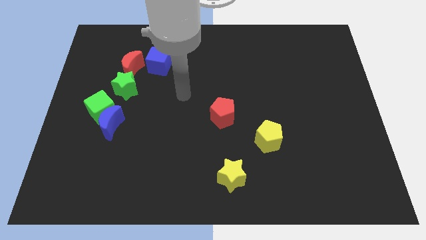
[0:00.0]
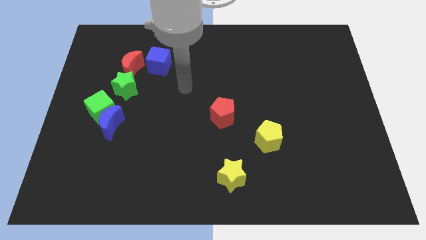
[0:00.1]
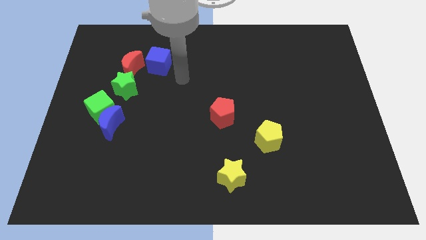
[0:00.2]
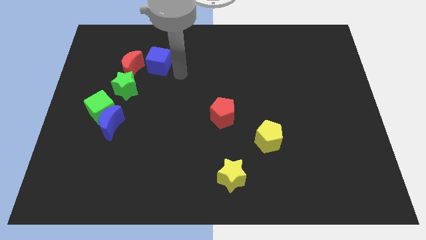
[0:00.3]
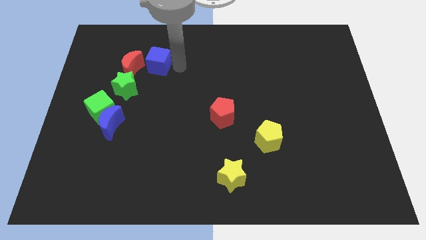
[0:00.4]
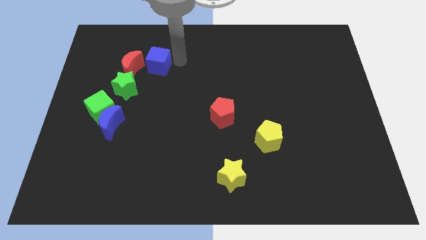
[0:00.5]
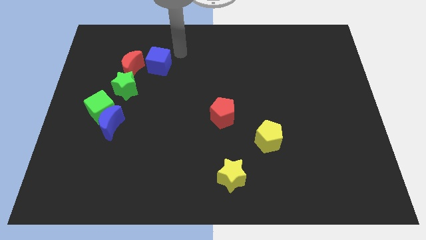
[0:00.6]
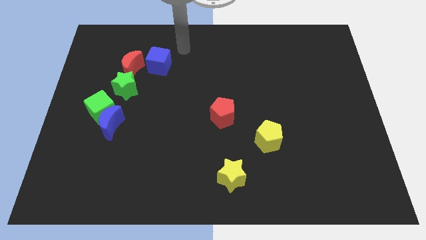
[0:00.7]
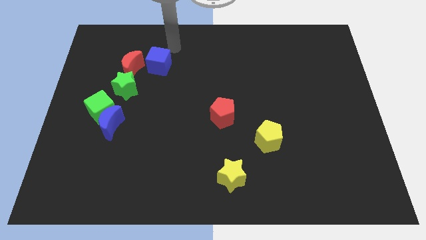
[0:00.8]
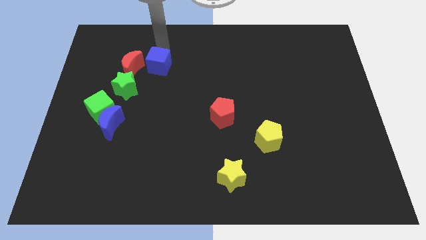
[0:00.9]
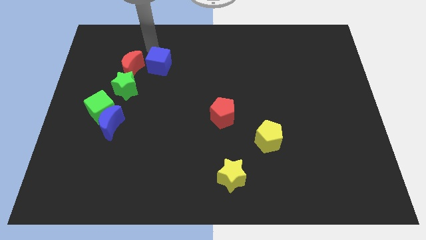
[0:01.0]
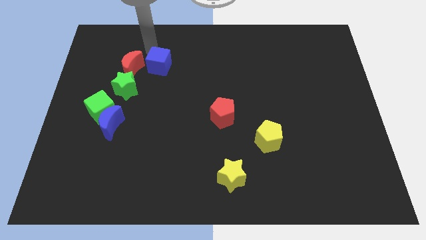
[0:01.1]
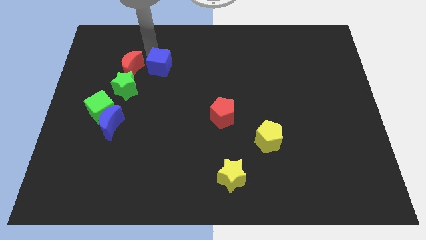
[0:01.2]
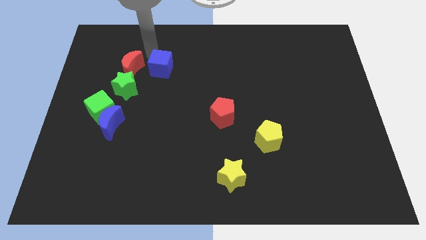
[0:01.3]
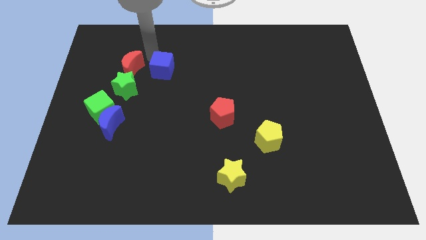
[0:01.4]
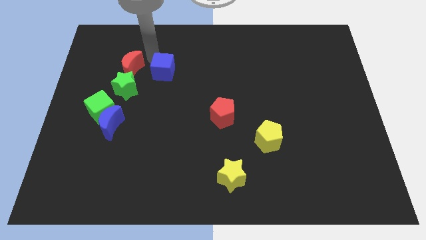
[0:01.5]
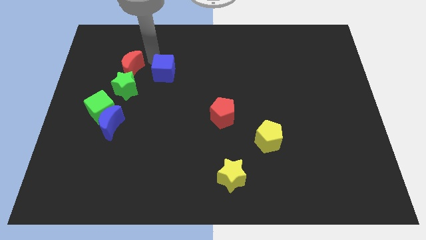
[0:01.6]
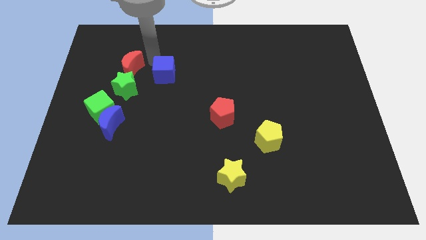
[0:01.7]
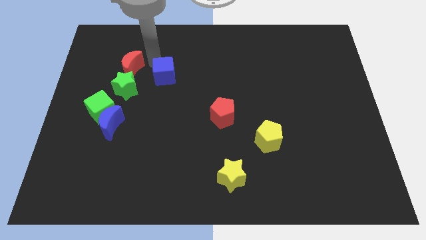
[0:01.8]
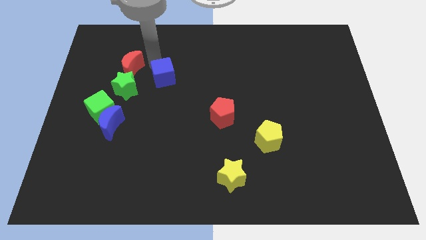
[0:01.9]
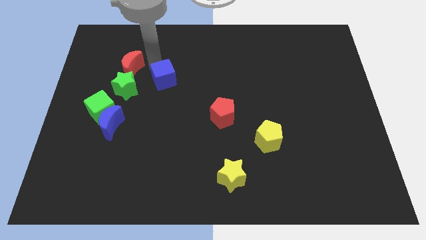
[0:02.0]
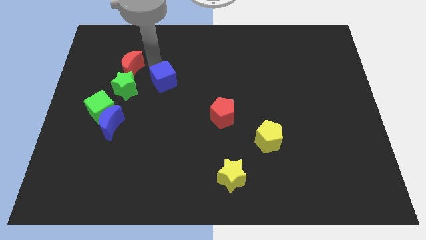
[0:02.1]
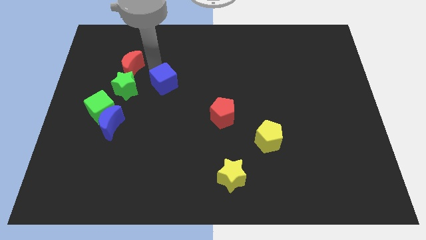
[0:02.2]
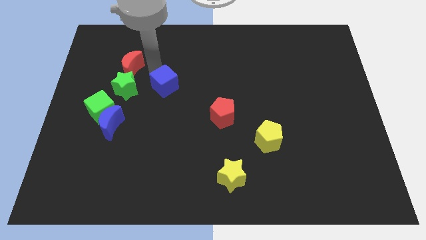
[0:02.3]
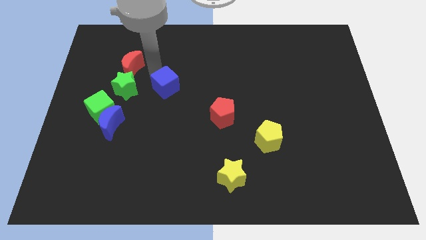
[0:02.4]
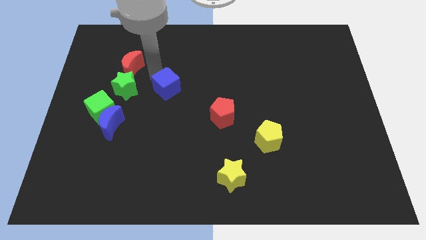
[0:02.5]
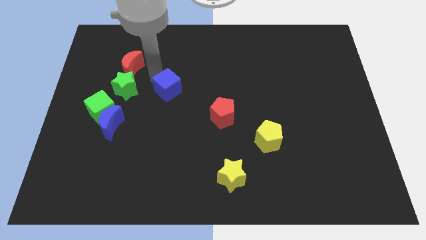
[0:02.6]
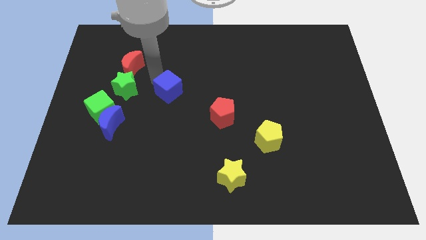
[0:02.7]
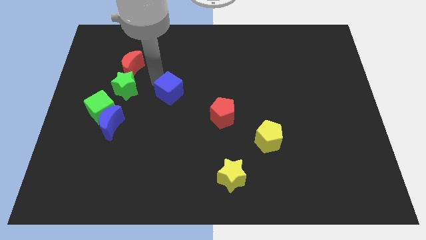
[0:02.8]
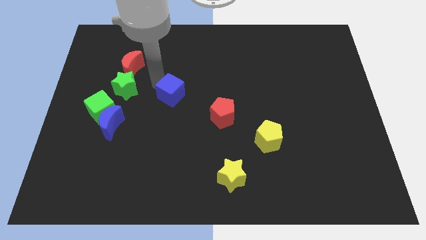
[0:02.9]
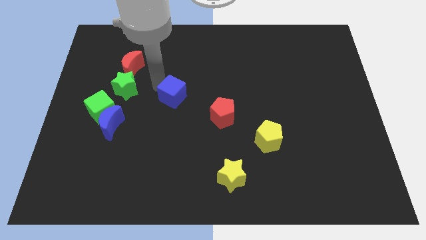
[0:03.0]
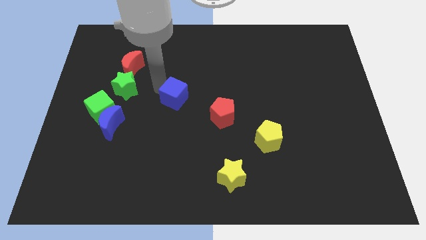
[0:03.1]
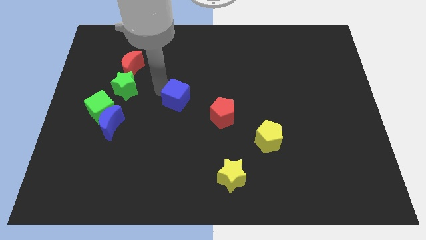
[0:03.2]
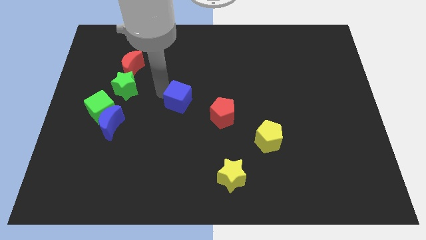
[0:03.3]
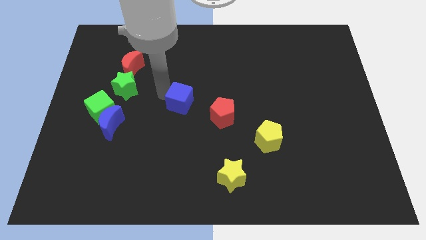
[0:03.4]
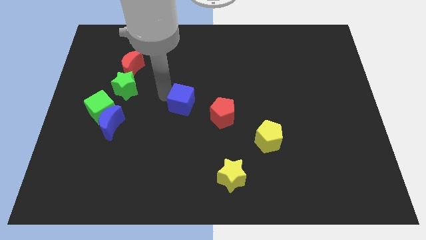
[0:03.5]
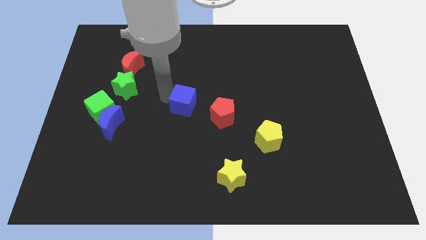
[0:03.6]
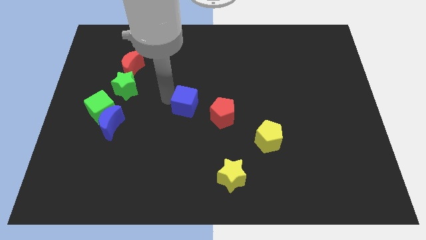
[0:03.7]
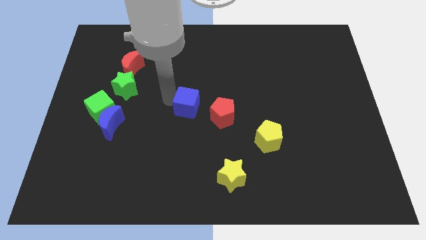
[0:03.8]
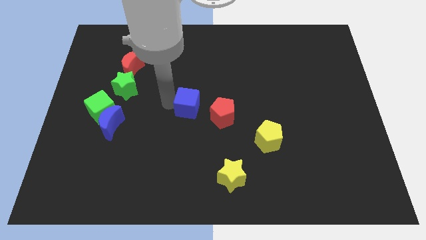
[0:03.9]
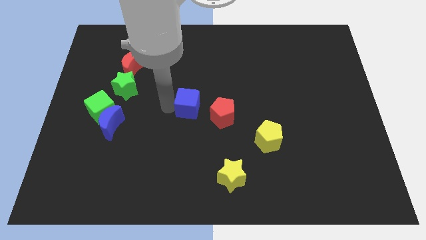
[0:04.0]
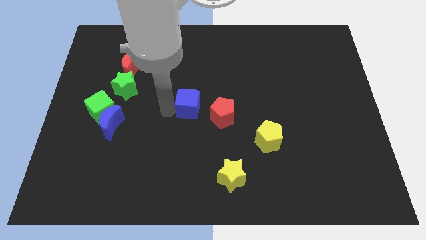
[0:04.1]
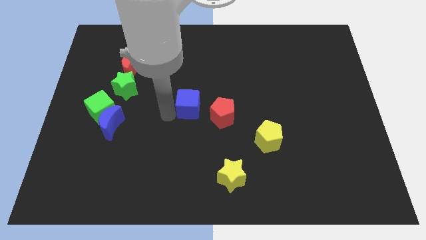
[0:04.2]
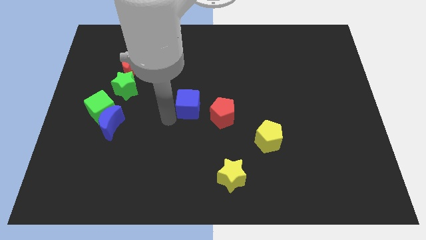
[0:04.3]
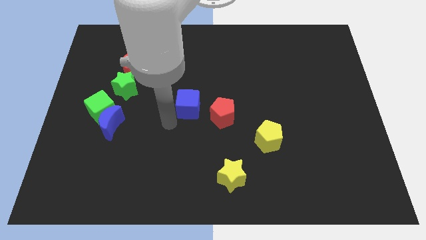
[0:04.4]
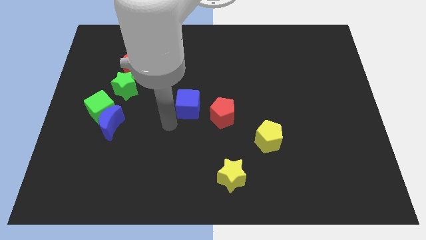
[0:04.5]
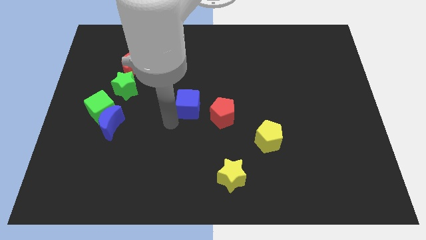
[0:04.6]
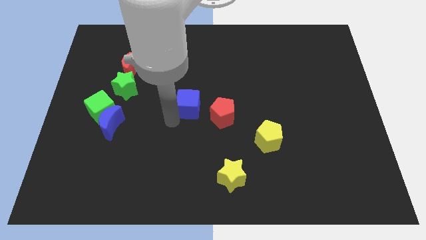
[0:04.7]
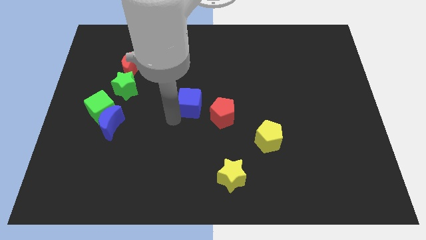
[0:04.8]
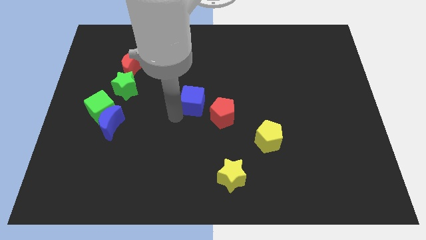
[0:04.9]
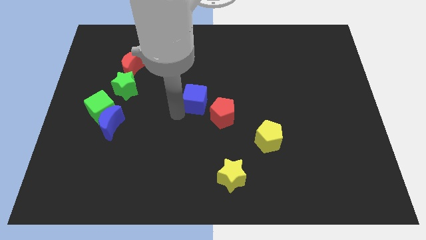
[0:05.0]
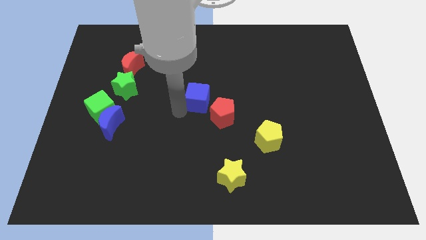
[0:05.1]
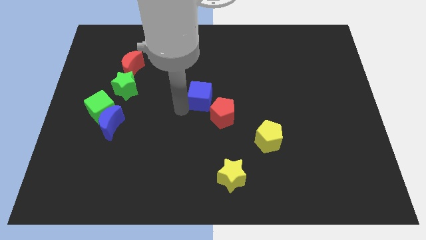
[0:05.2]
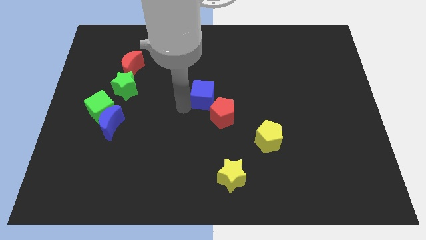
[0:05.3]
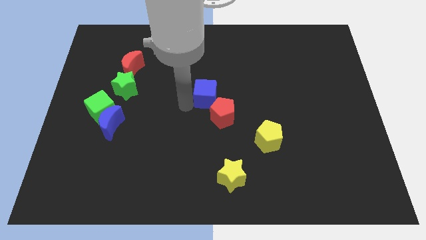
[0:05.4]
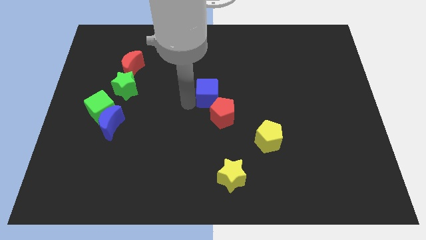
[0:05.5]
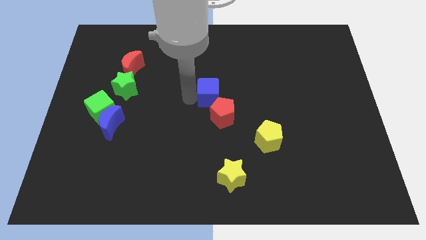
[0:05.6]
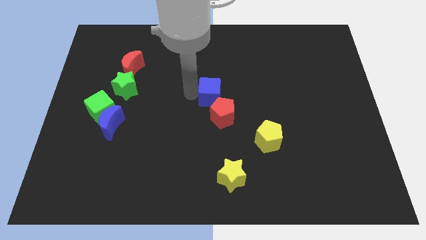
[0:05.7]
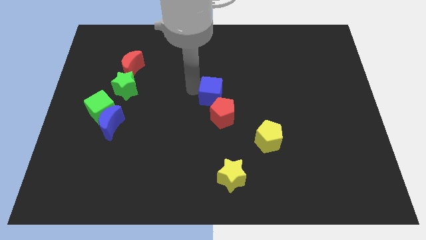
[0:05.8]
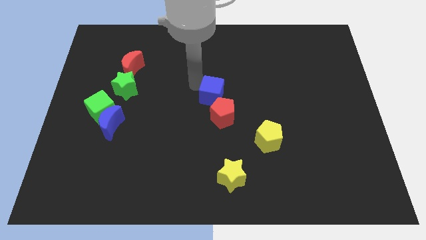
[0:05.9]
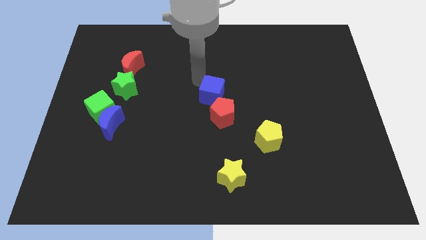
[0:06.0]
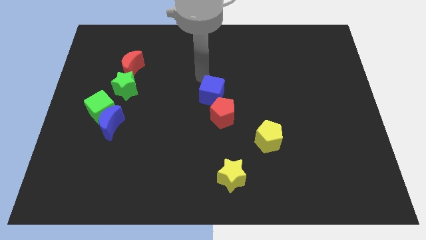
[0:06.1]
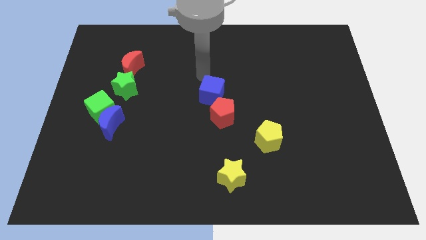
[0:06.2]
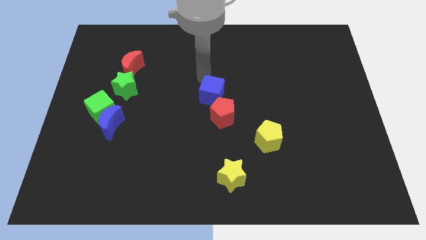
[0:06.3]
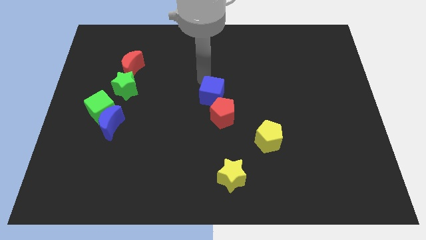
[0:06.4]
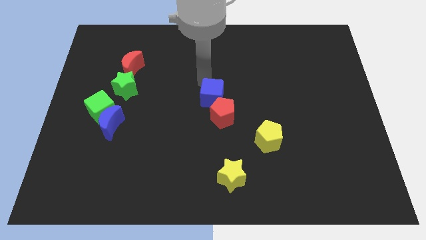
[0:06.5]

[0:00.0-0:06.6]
put the blue cube close to the red pentagon

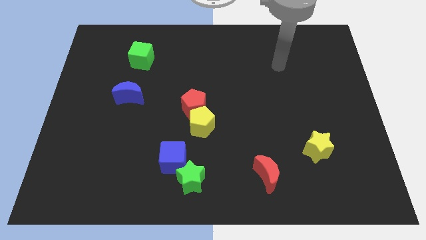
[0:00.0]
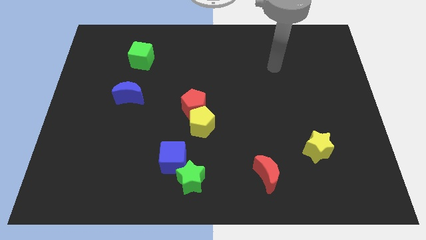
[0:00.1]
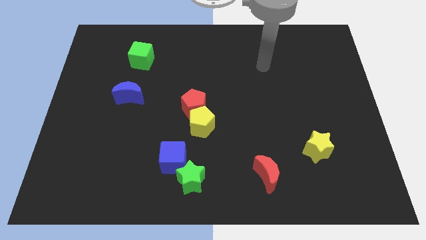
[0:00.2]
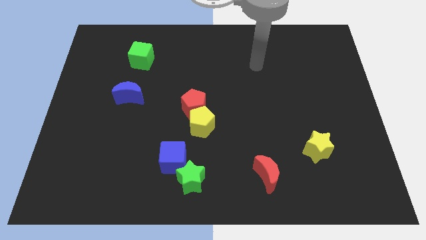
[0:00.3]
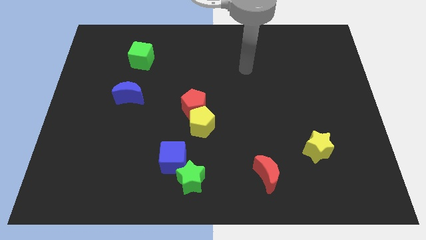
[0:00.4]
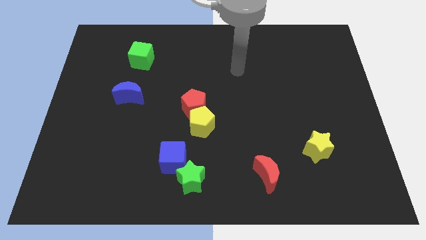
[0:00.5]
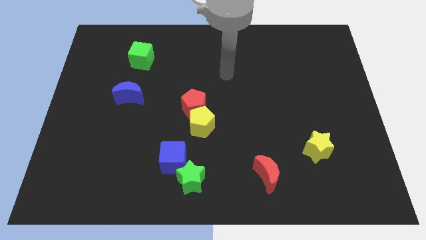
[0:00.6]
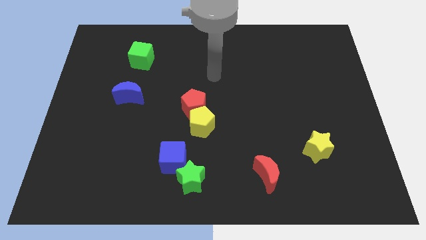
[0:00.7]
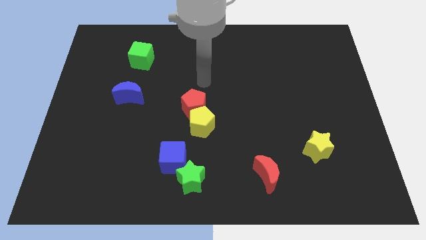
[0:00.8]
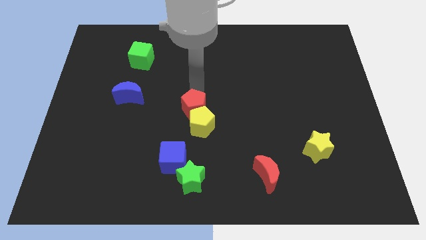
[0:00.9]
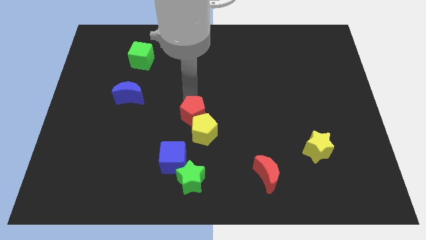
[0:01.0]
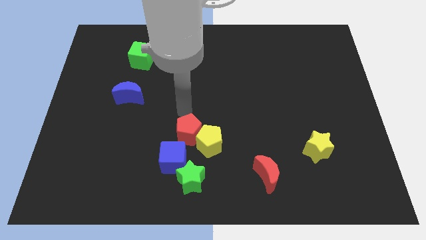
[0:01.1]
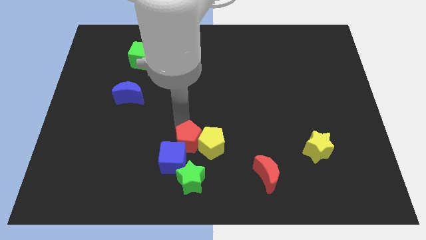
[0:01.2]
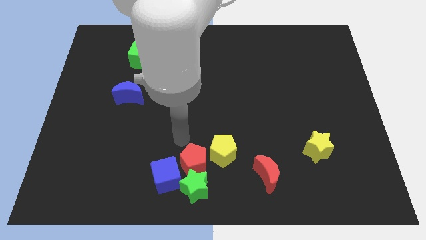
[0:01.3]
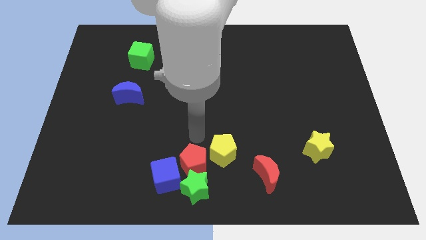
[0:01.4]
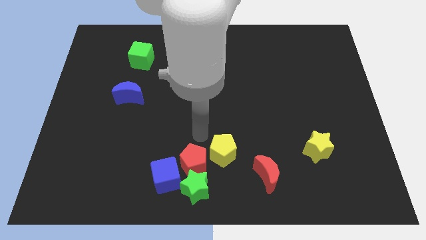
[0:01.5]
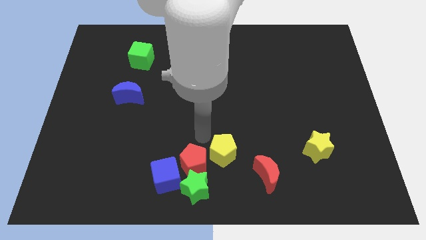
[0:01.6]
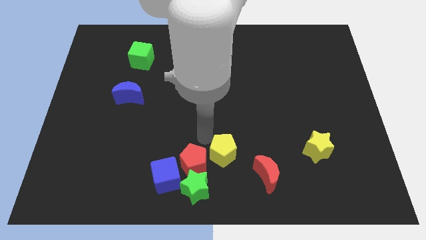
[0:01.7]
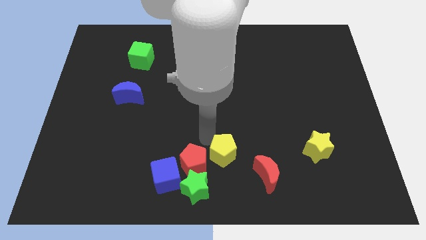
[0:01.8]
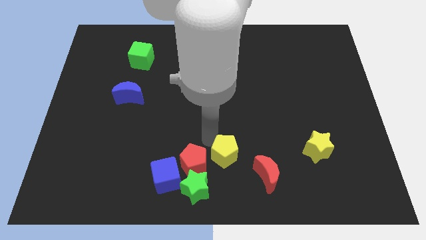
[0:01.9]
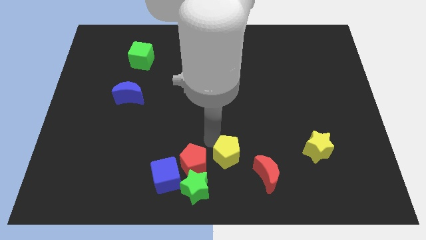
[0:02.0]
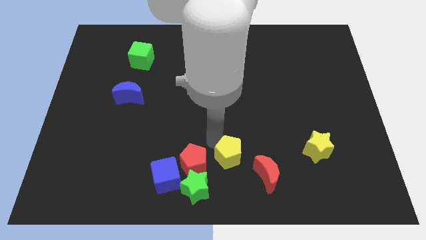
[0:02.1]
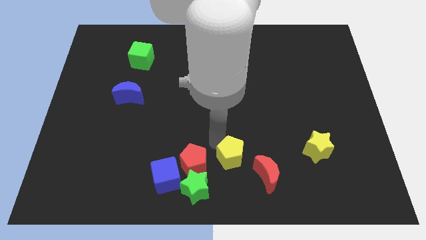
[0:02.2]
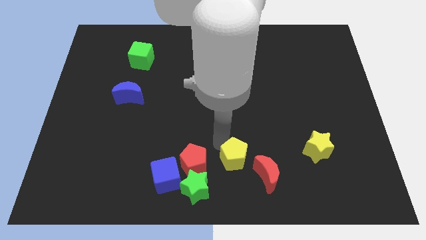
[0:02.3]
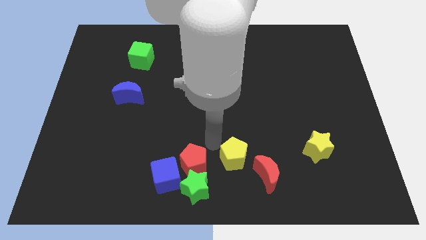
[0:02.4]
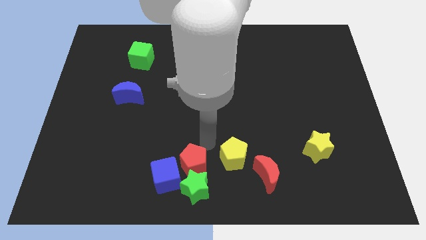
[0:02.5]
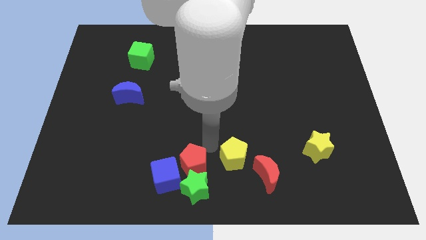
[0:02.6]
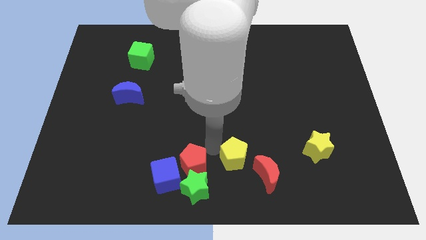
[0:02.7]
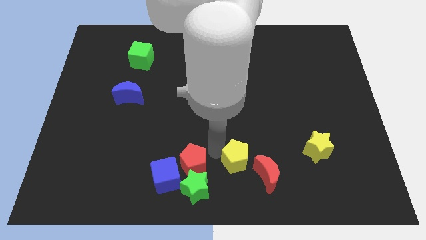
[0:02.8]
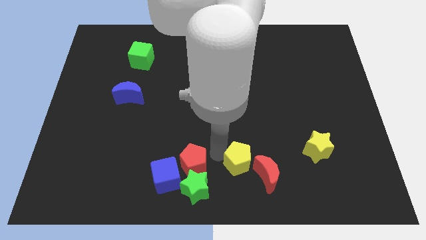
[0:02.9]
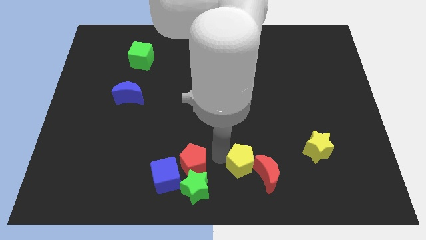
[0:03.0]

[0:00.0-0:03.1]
move the yellow pentagon towards the red moon
